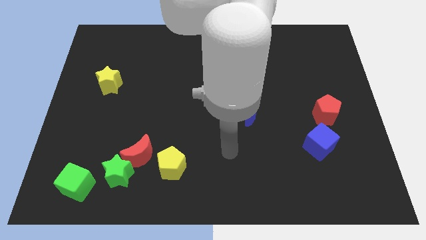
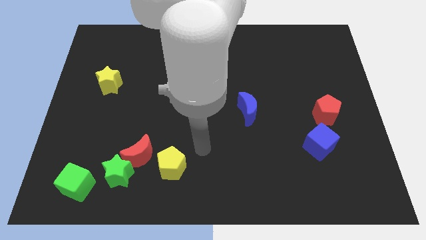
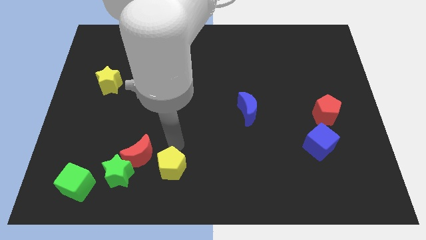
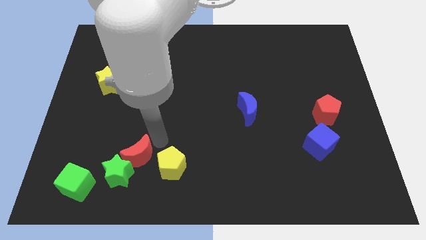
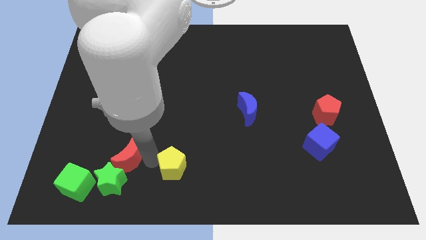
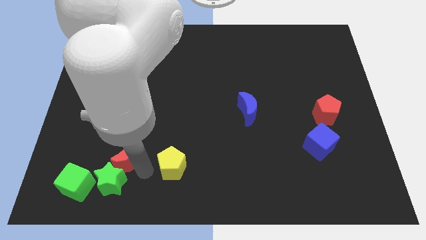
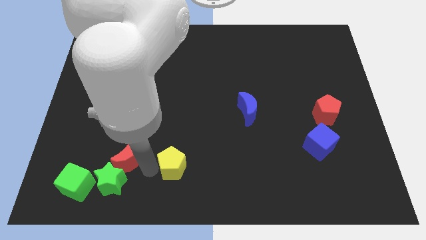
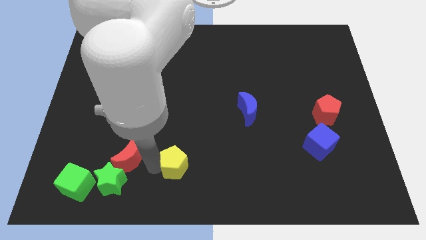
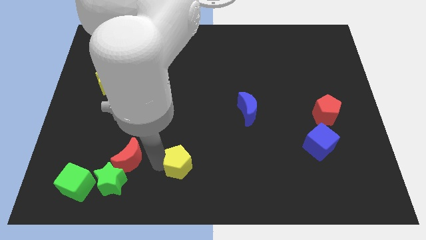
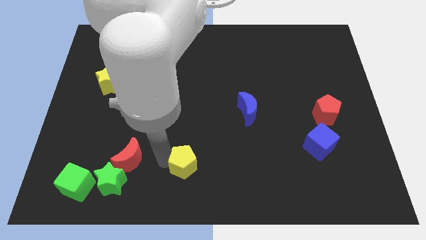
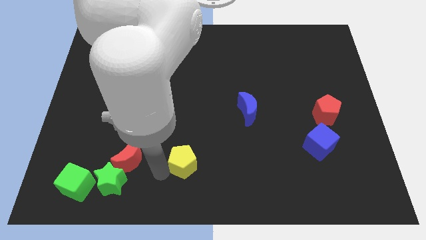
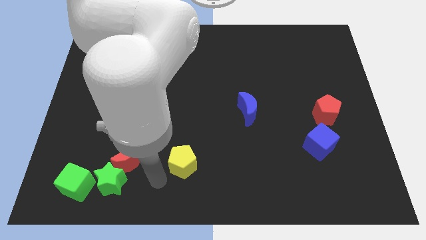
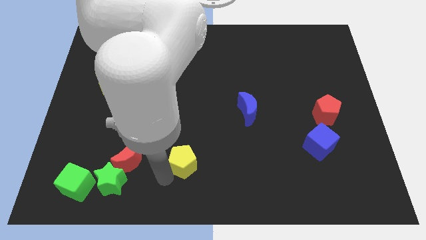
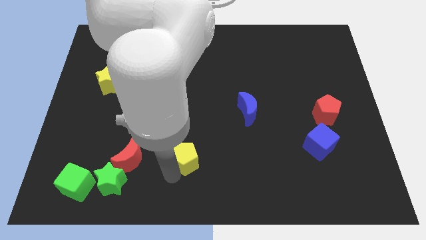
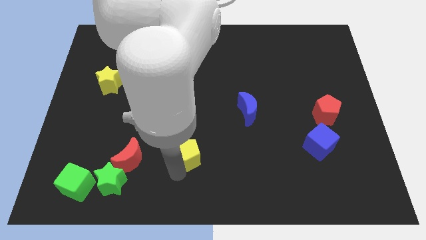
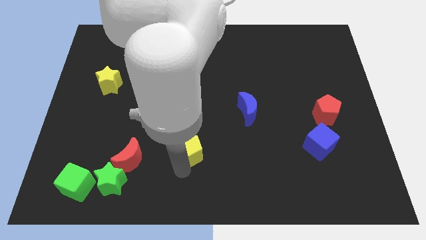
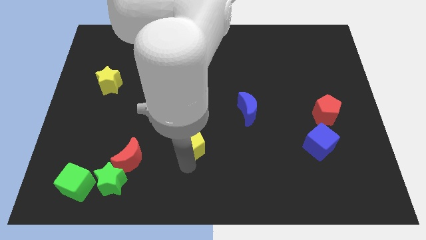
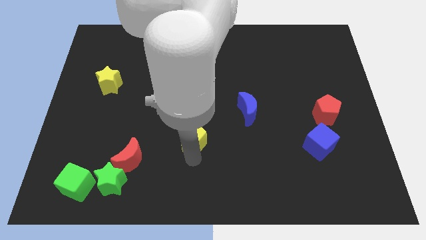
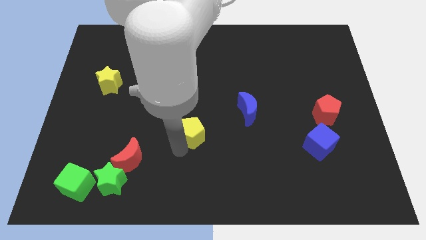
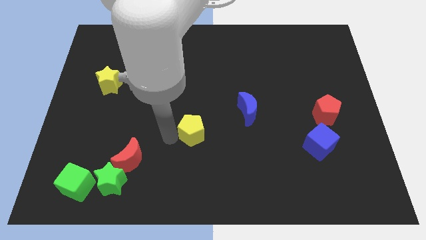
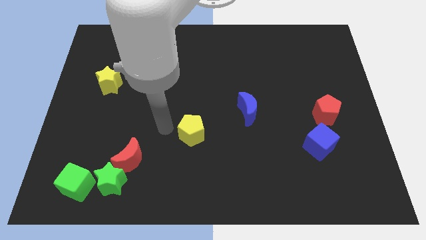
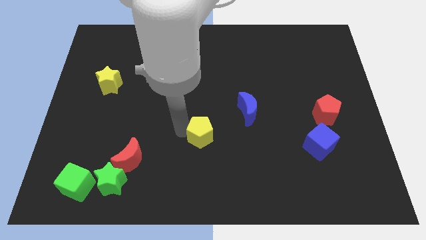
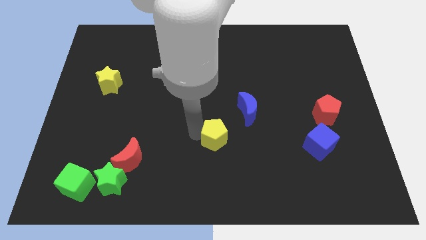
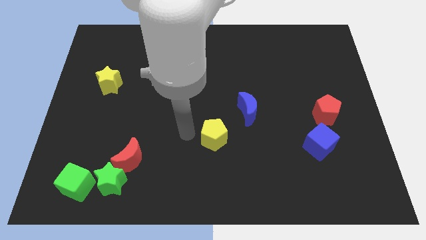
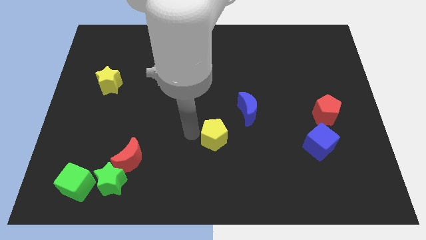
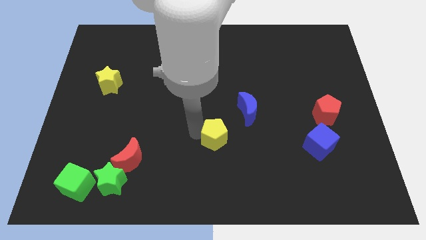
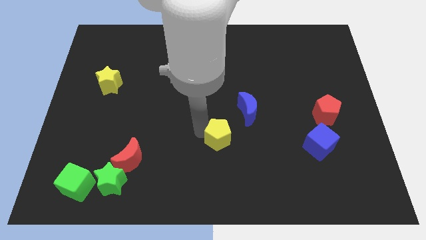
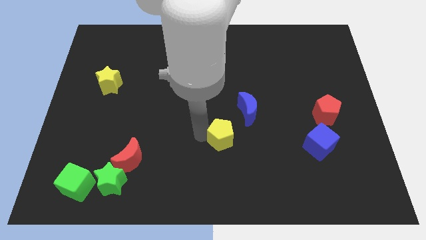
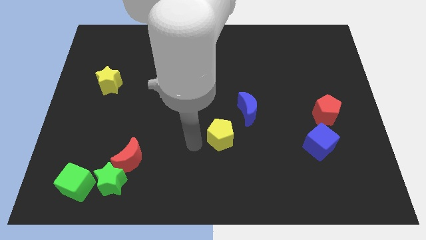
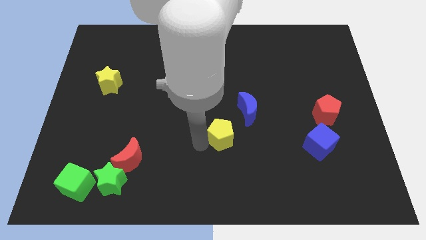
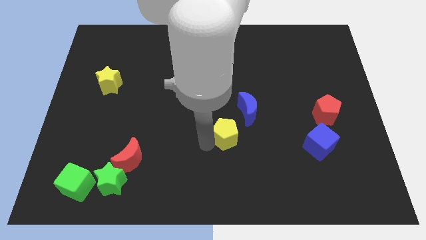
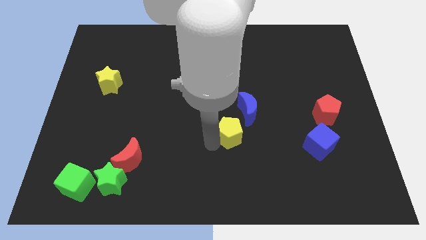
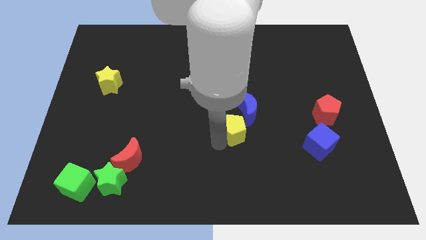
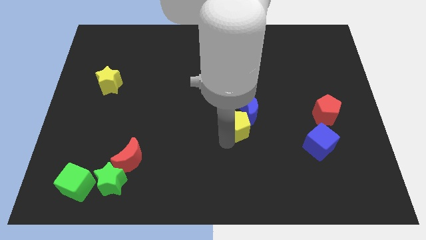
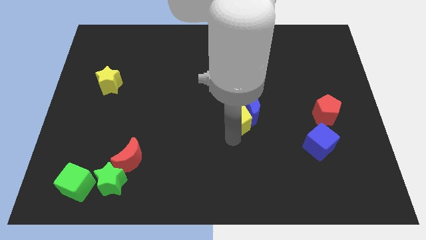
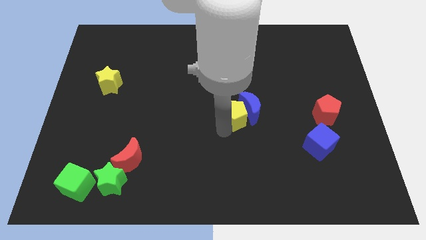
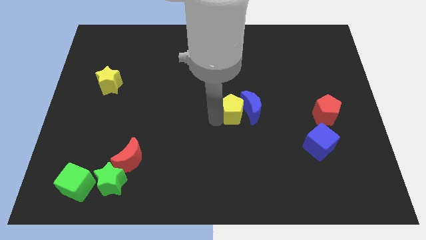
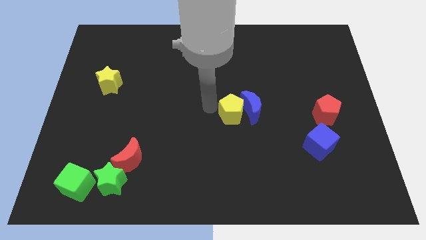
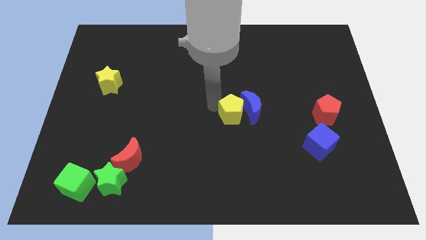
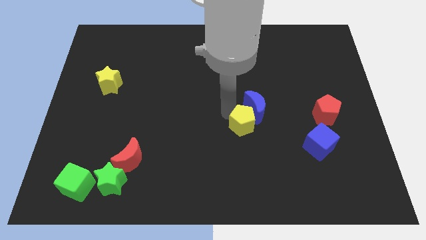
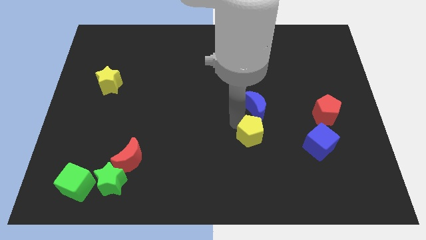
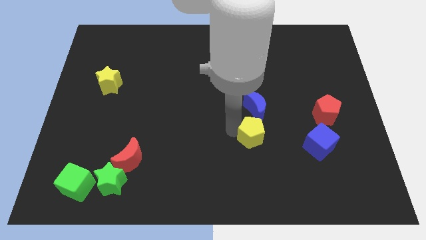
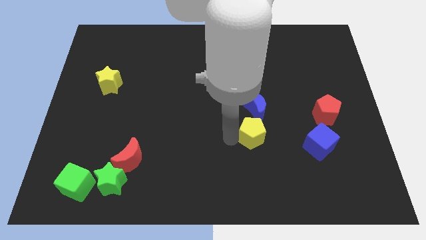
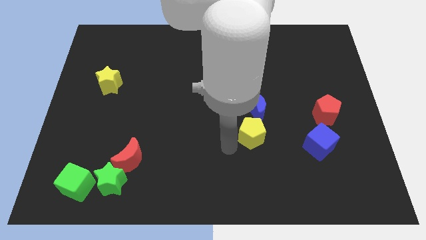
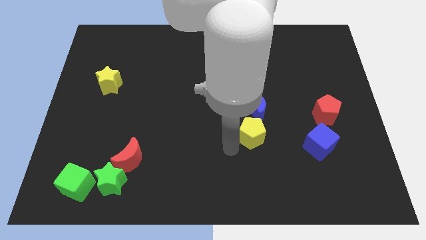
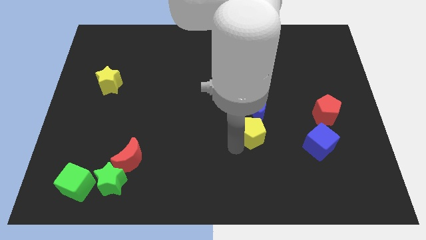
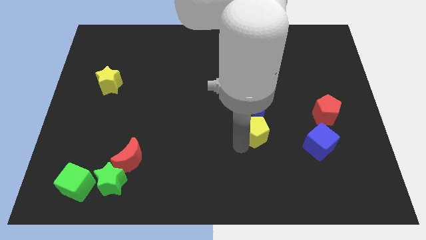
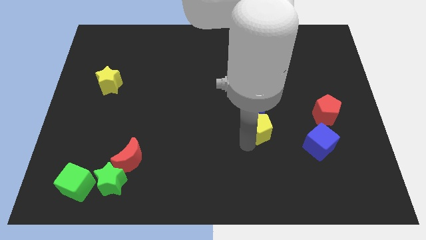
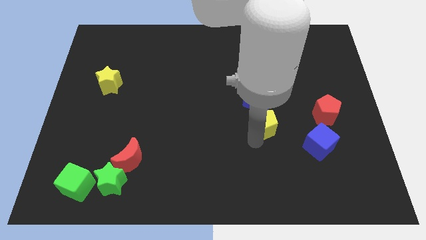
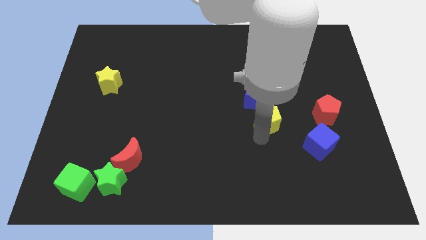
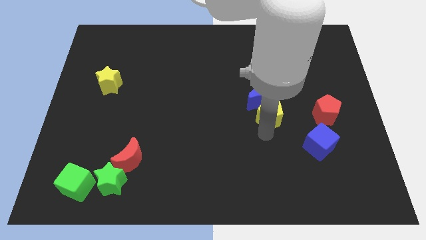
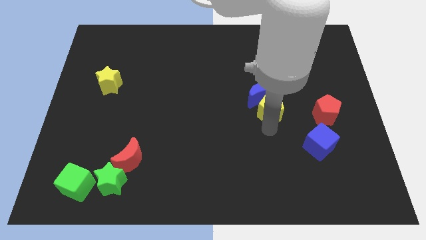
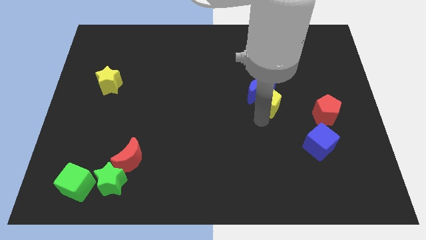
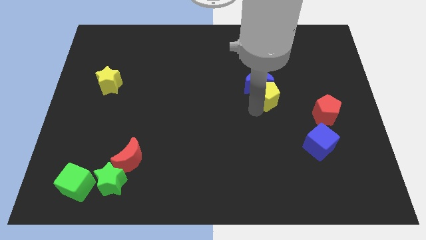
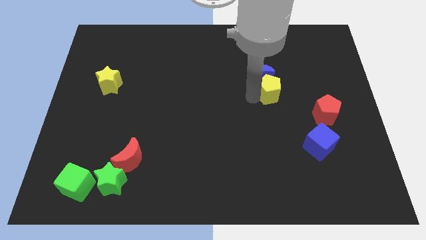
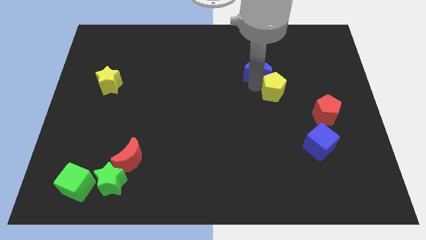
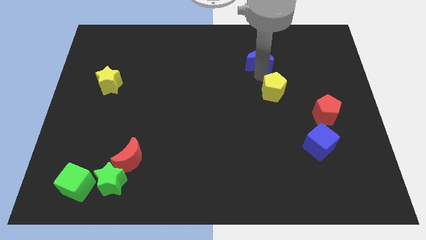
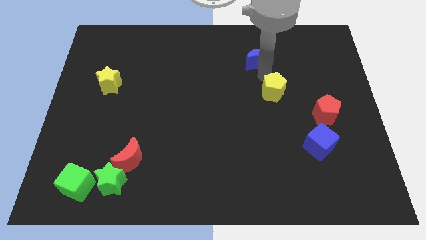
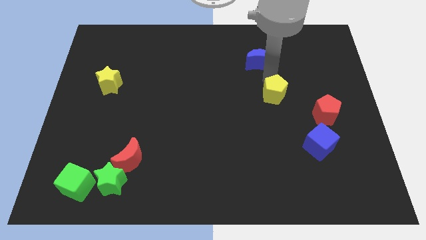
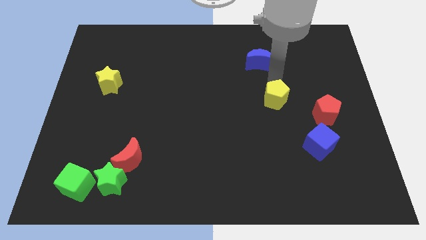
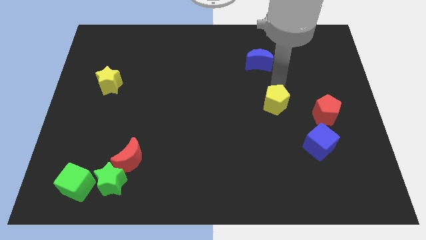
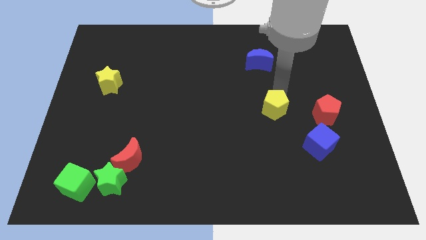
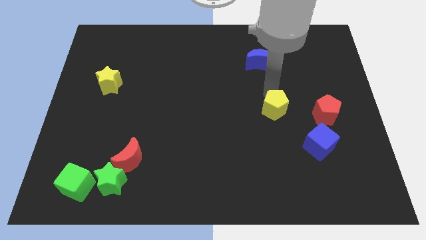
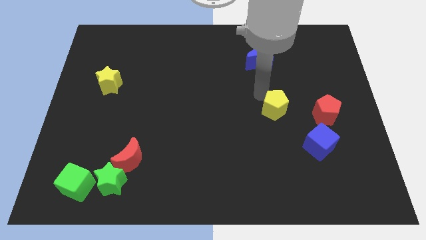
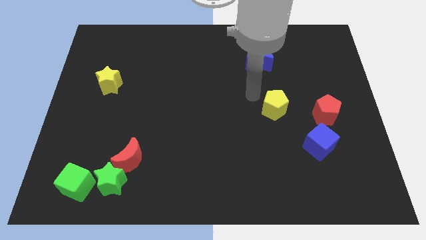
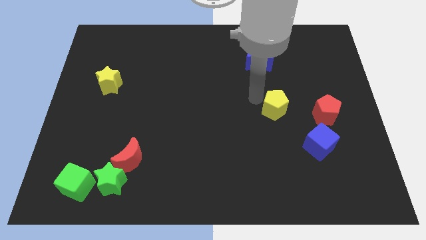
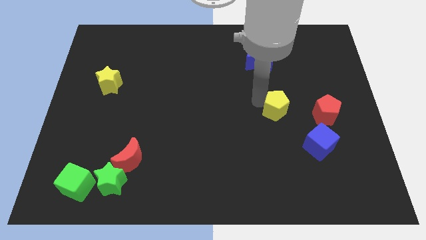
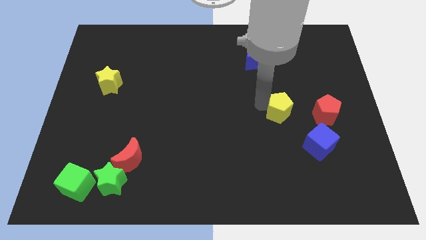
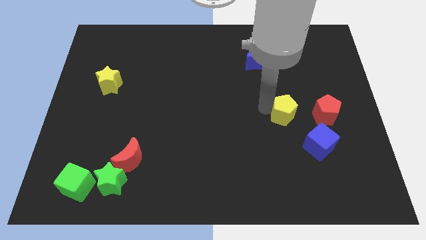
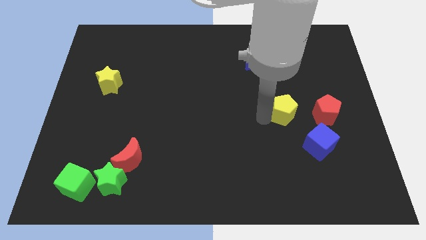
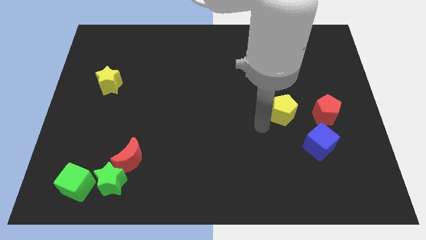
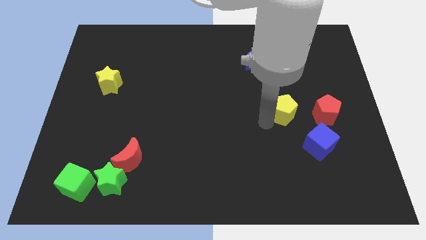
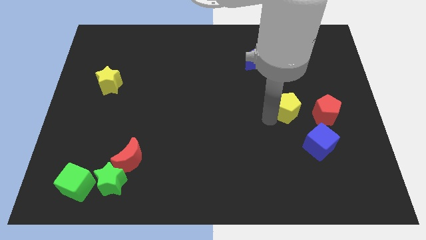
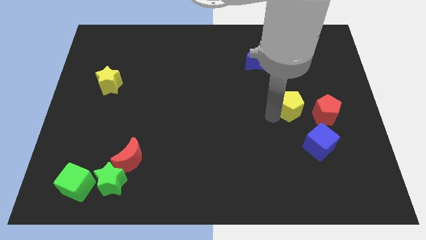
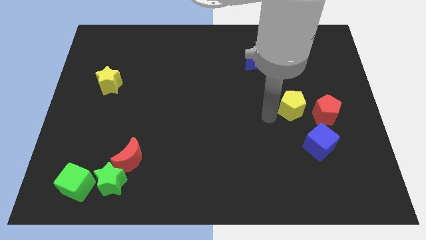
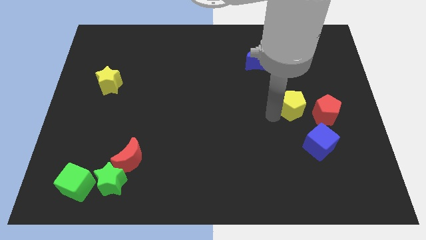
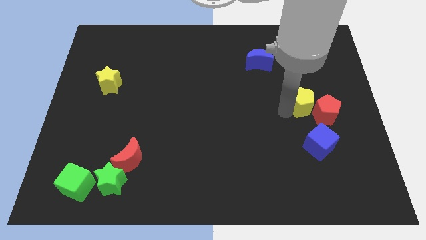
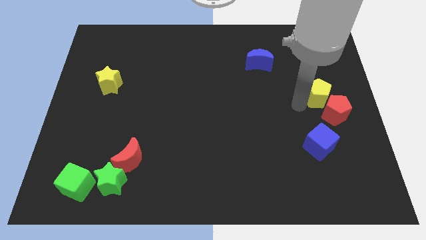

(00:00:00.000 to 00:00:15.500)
push the yellow pentagon to the center right
